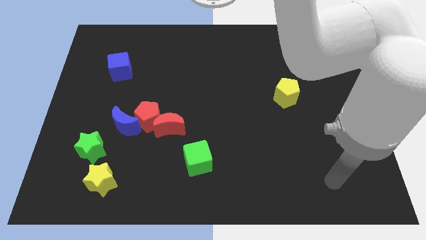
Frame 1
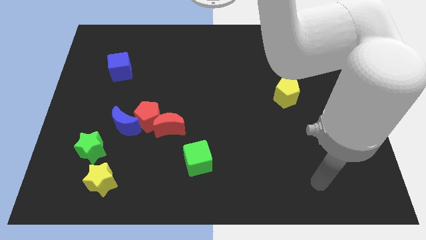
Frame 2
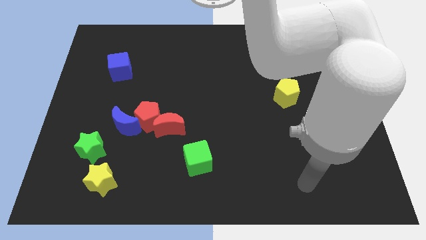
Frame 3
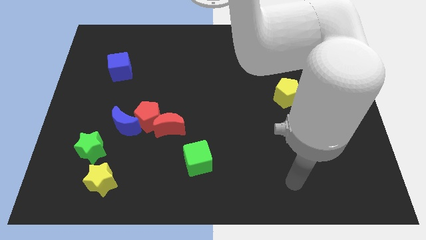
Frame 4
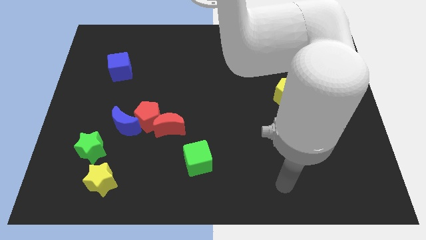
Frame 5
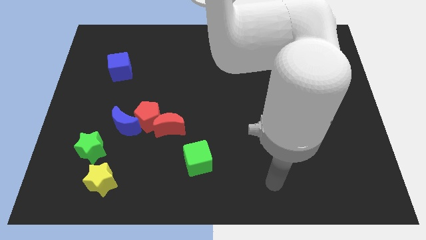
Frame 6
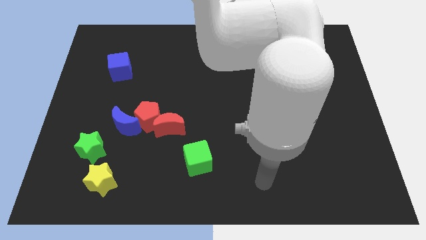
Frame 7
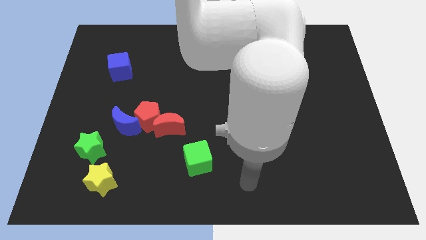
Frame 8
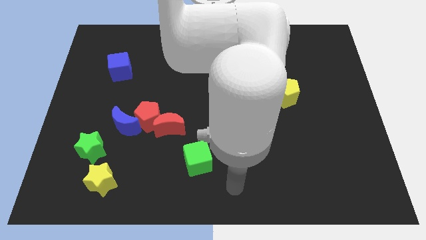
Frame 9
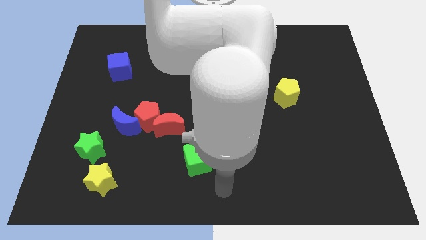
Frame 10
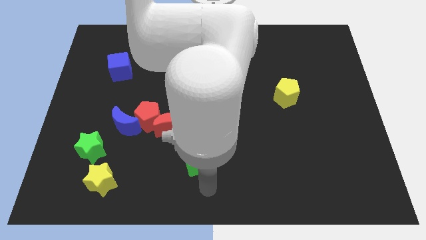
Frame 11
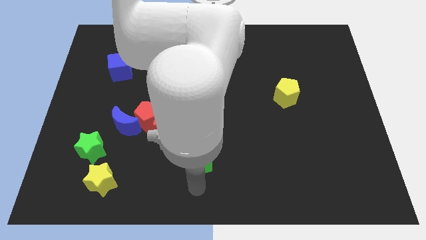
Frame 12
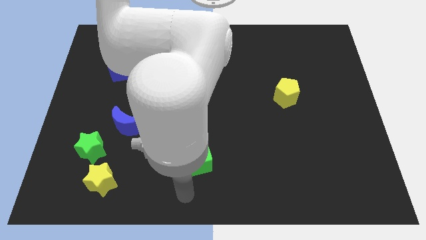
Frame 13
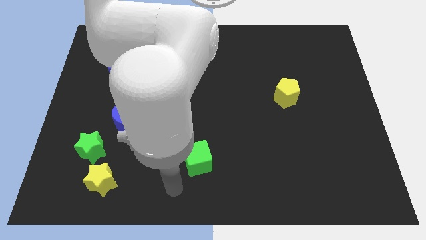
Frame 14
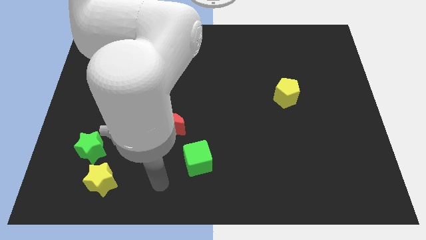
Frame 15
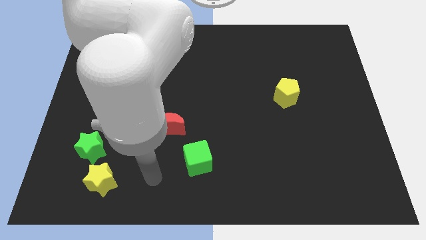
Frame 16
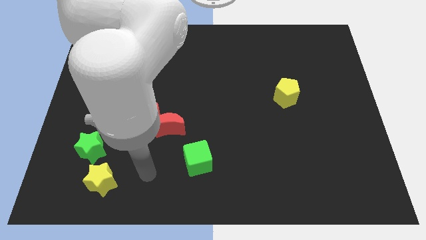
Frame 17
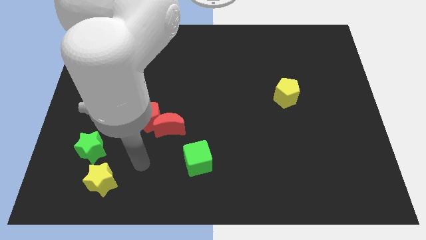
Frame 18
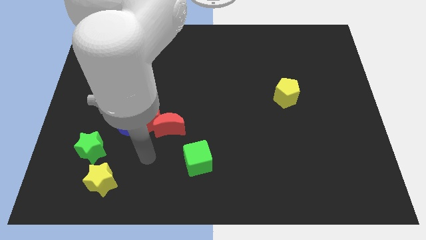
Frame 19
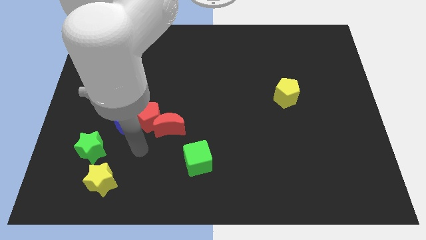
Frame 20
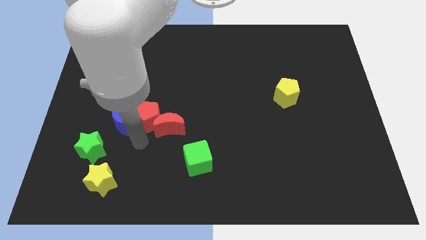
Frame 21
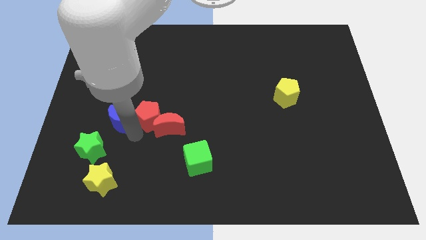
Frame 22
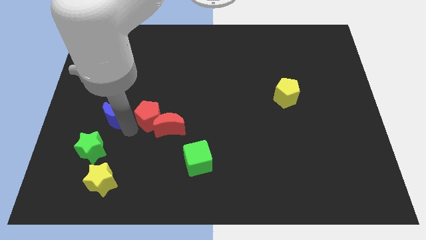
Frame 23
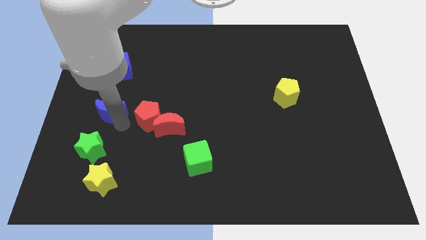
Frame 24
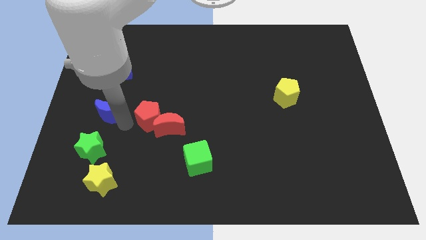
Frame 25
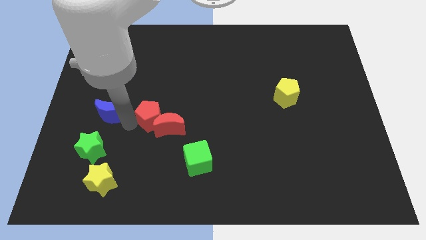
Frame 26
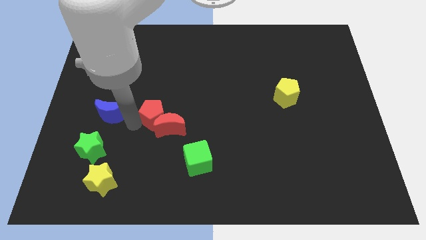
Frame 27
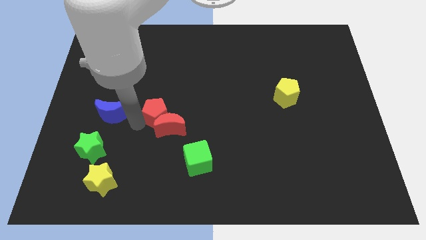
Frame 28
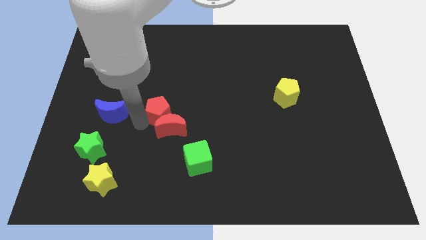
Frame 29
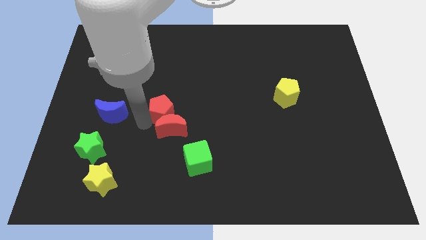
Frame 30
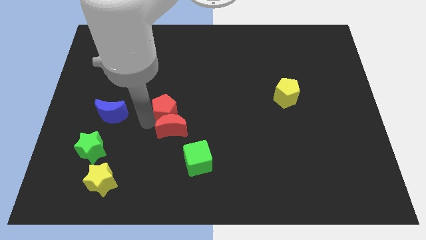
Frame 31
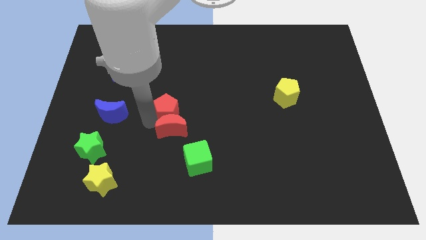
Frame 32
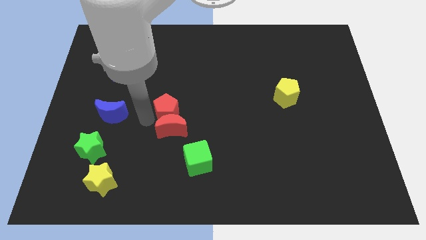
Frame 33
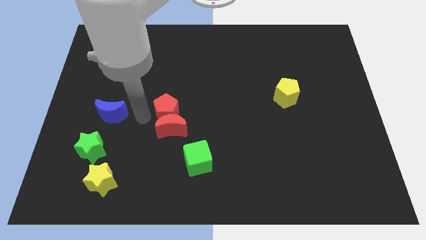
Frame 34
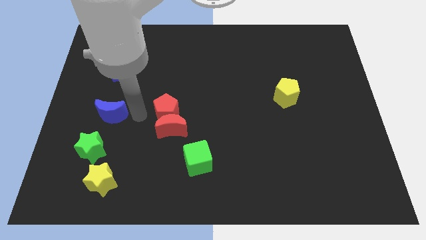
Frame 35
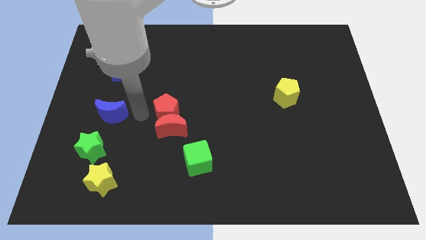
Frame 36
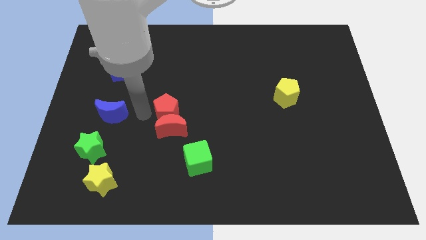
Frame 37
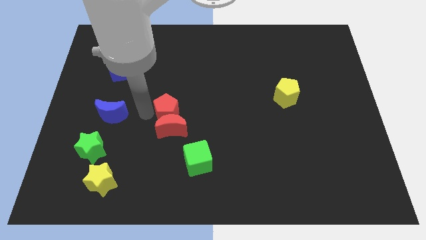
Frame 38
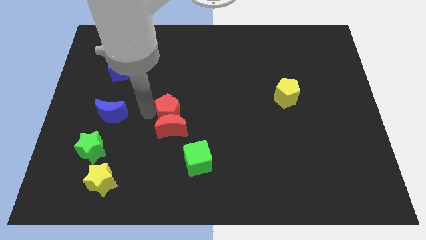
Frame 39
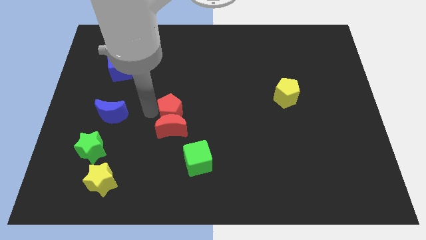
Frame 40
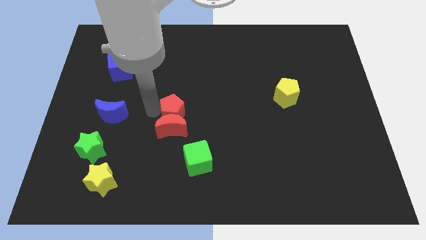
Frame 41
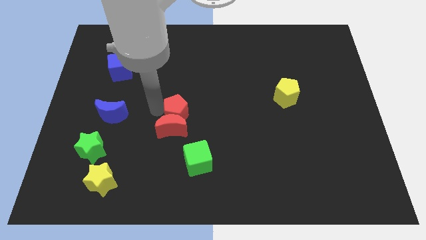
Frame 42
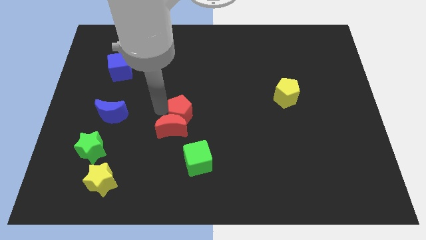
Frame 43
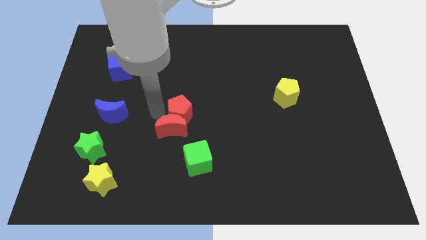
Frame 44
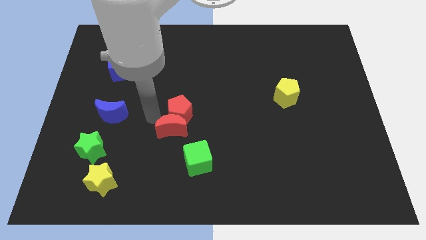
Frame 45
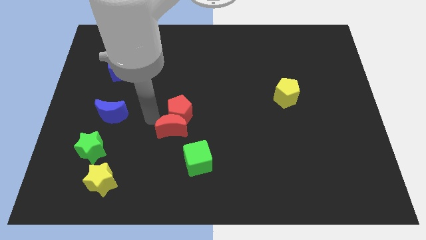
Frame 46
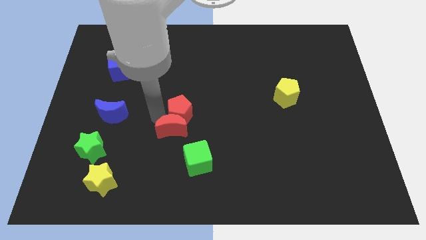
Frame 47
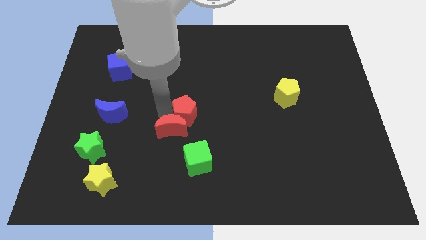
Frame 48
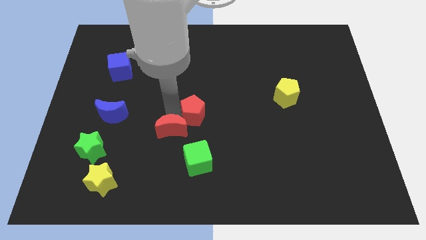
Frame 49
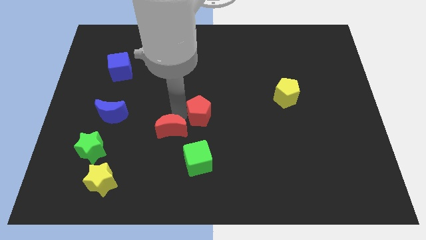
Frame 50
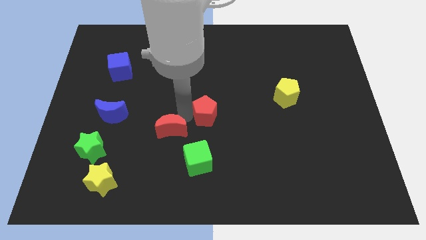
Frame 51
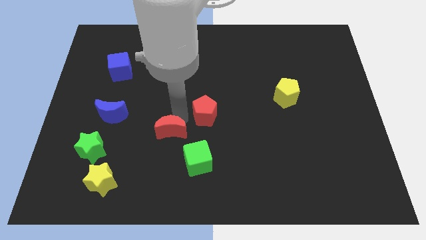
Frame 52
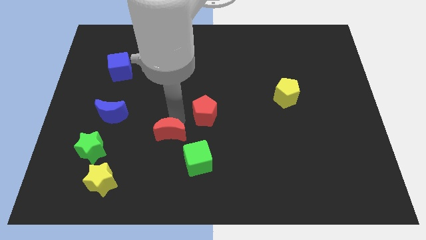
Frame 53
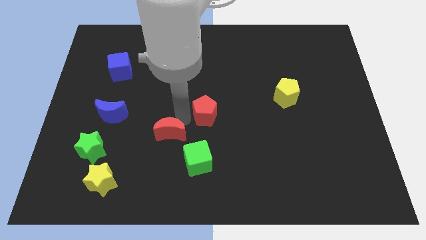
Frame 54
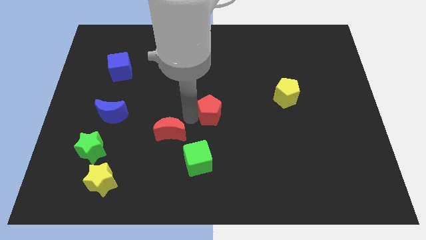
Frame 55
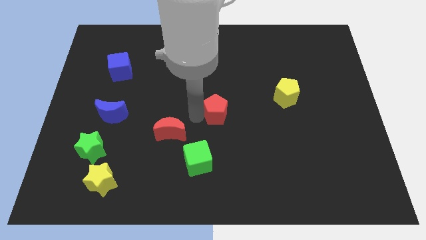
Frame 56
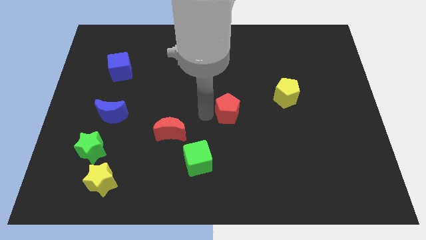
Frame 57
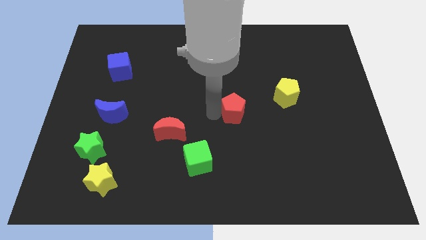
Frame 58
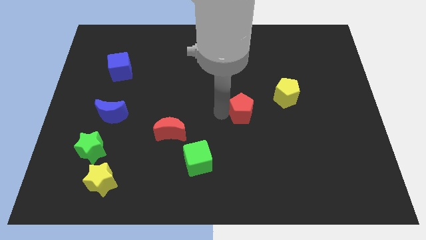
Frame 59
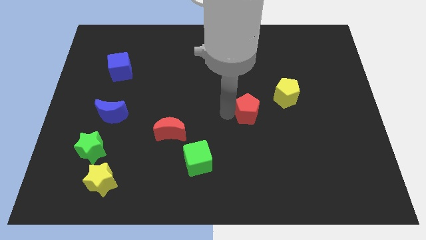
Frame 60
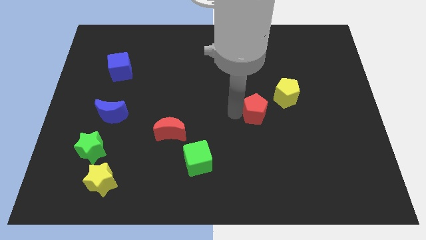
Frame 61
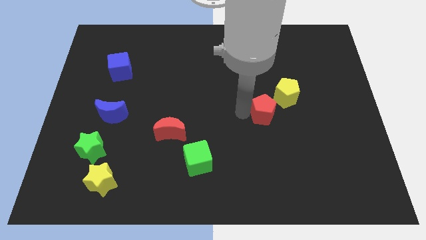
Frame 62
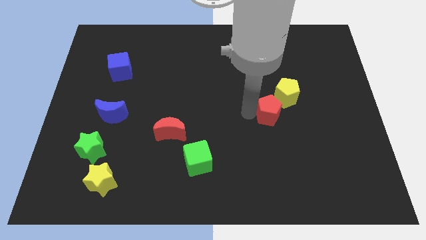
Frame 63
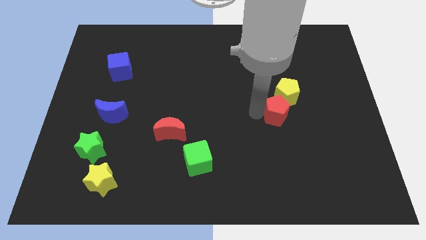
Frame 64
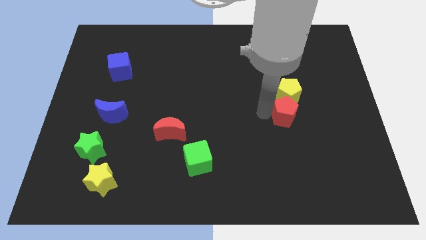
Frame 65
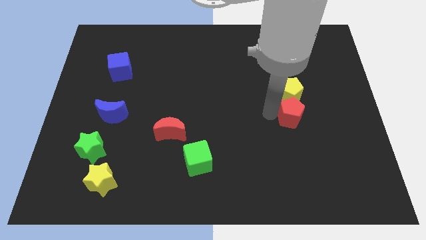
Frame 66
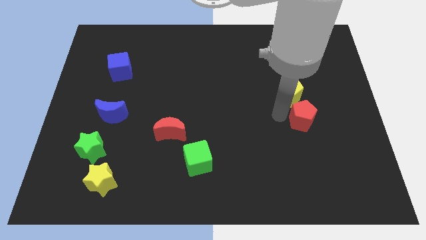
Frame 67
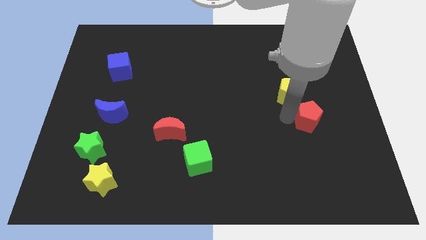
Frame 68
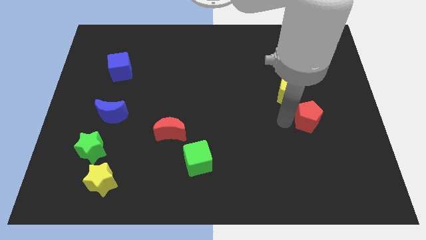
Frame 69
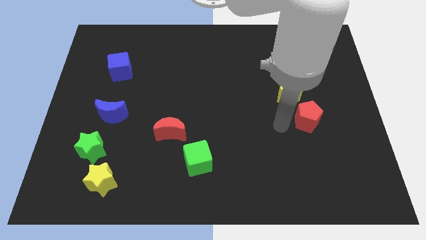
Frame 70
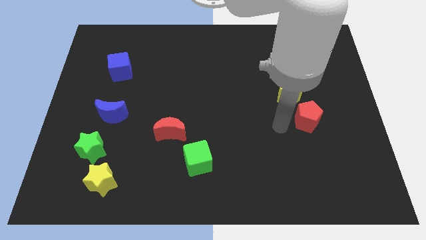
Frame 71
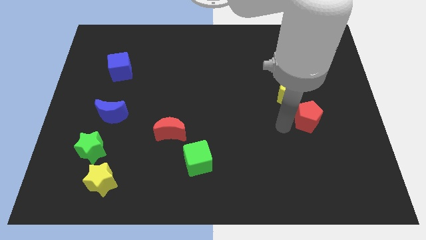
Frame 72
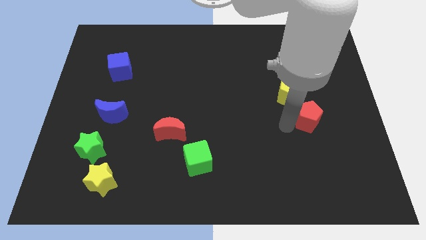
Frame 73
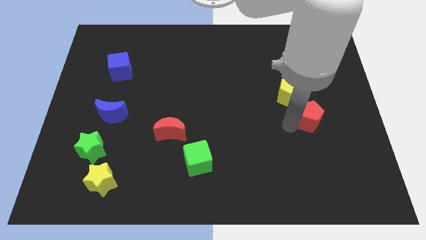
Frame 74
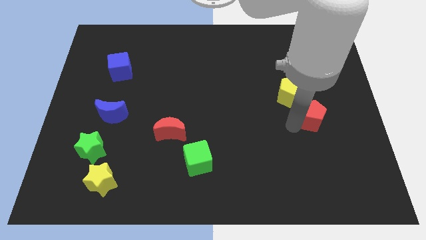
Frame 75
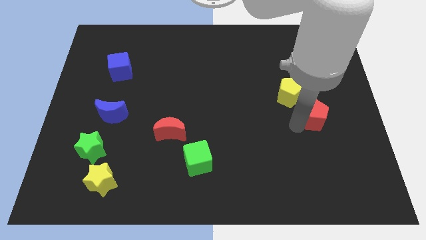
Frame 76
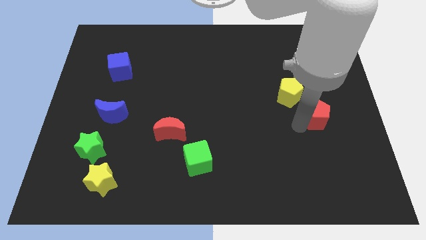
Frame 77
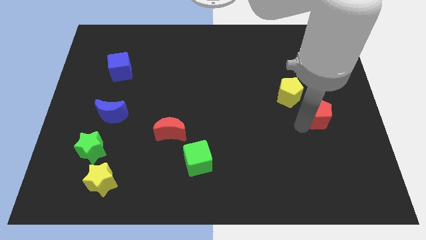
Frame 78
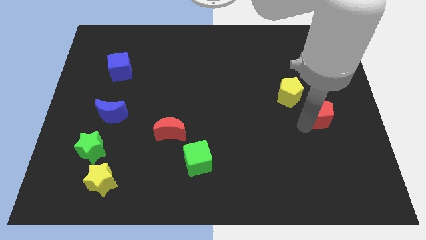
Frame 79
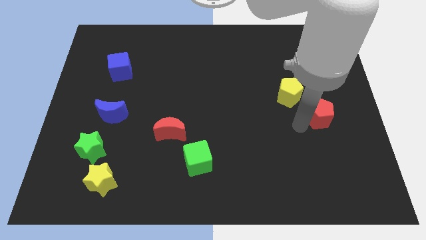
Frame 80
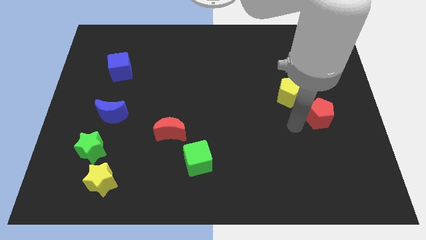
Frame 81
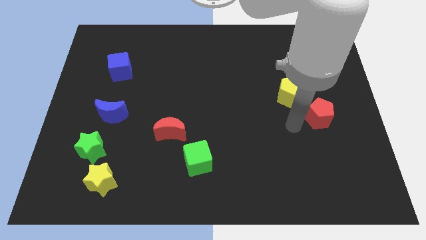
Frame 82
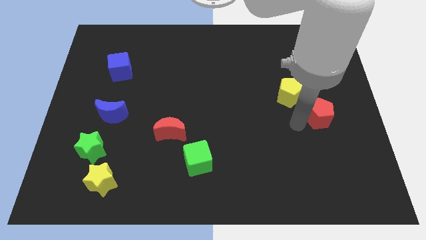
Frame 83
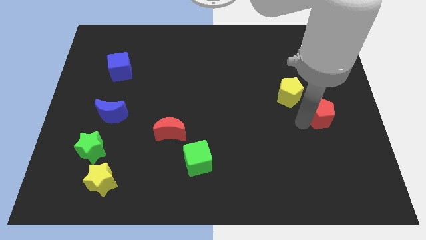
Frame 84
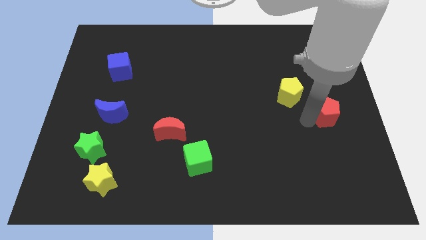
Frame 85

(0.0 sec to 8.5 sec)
put the red pentagon to the right side
